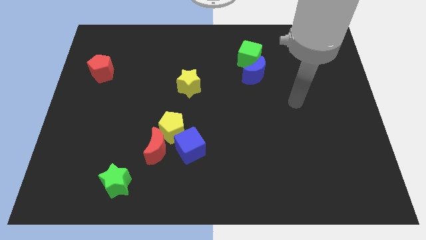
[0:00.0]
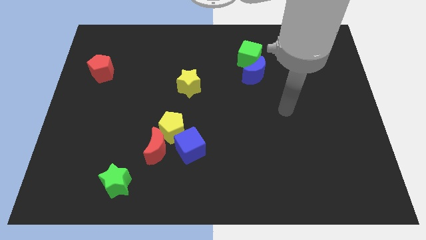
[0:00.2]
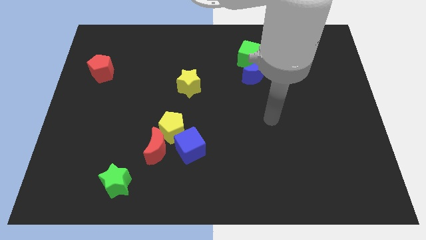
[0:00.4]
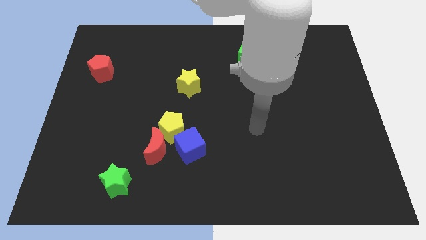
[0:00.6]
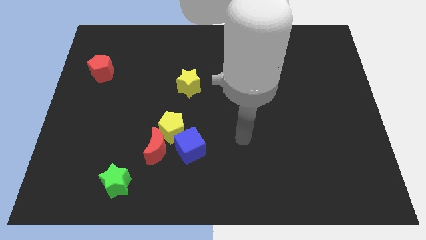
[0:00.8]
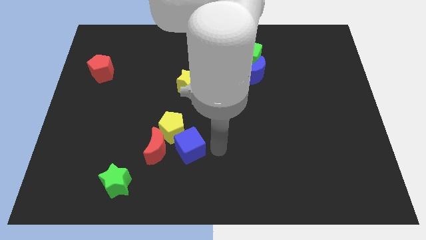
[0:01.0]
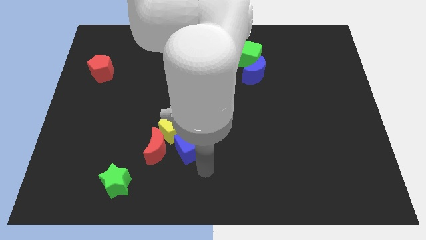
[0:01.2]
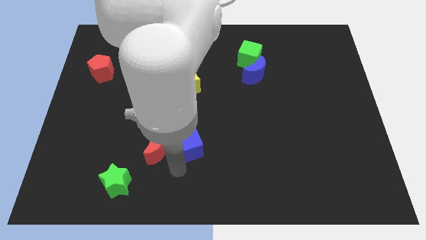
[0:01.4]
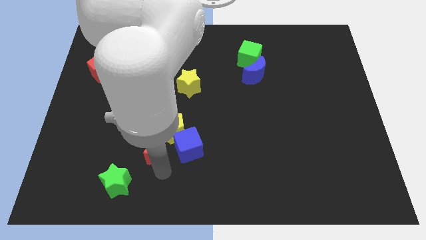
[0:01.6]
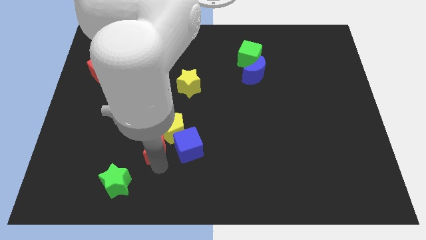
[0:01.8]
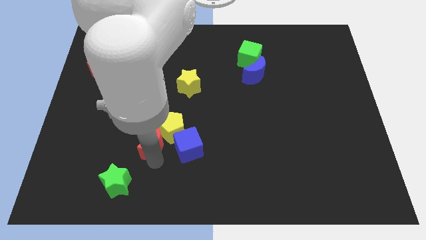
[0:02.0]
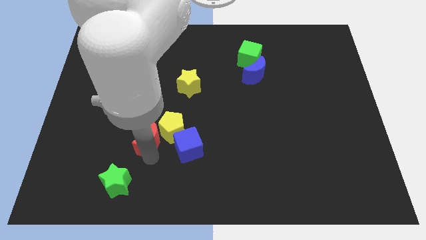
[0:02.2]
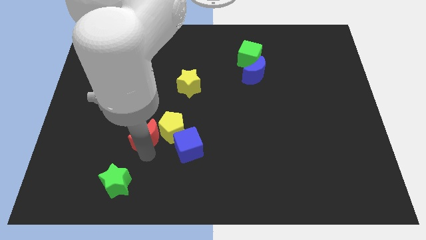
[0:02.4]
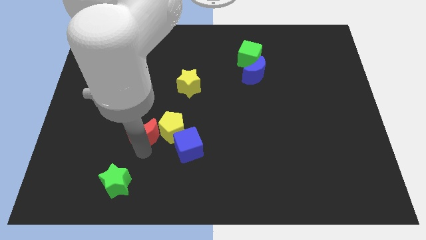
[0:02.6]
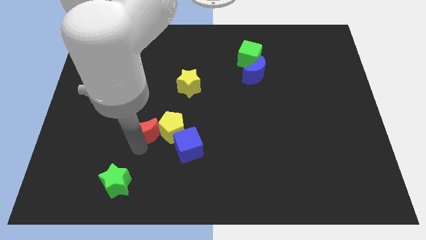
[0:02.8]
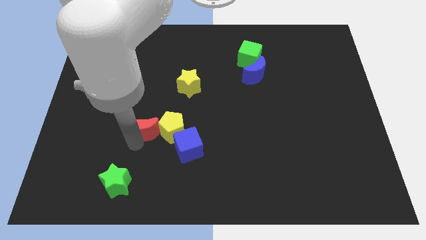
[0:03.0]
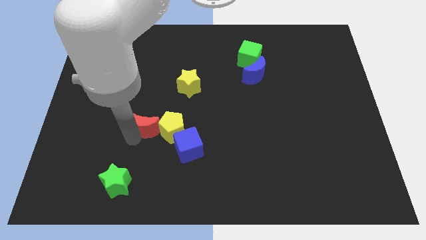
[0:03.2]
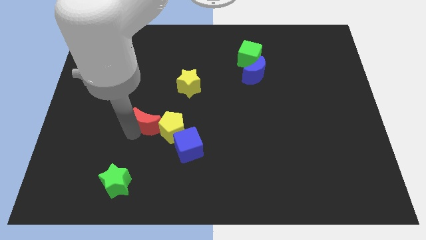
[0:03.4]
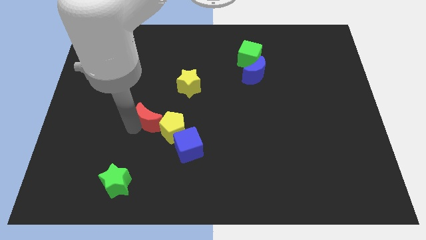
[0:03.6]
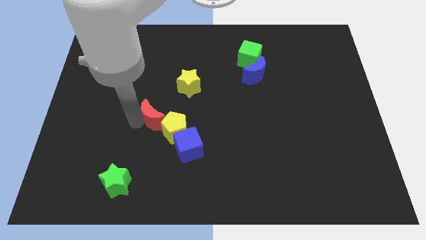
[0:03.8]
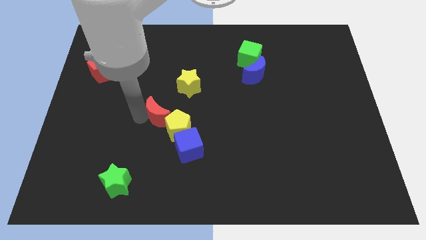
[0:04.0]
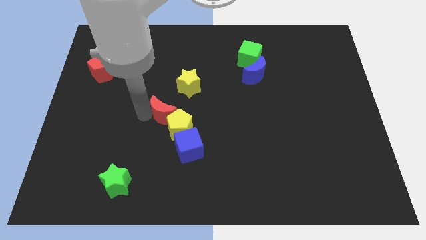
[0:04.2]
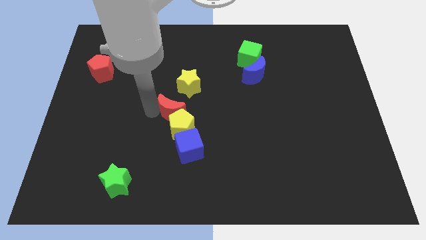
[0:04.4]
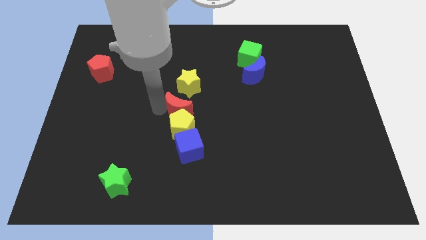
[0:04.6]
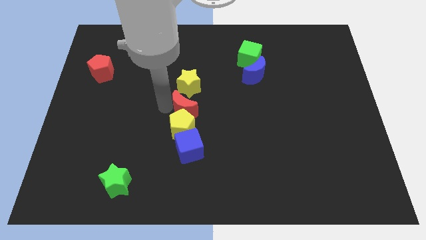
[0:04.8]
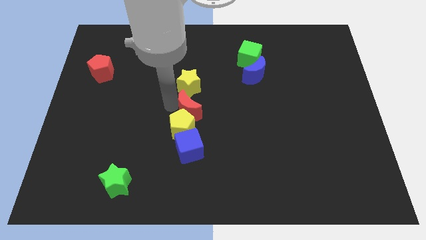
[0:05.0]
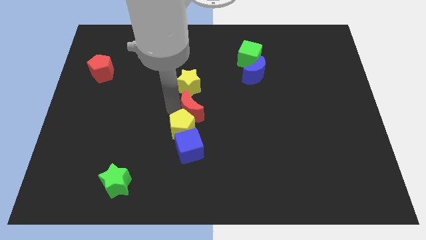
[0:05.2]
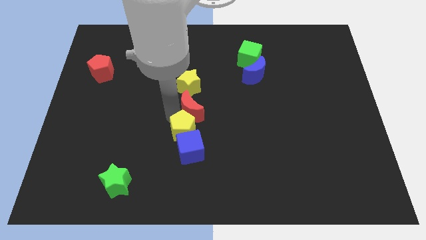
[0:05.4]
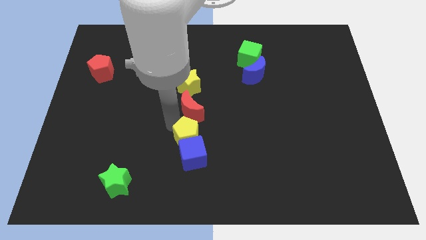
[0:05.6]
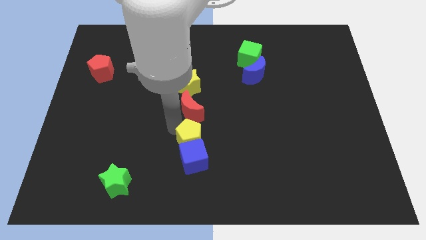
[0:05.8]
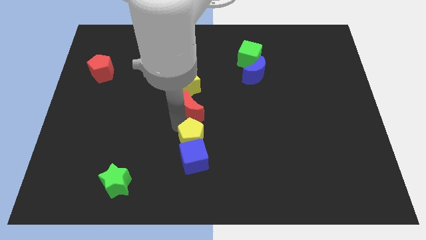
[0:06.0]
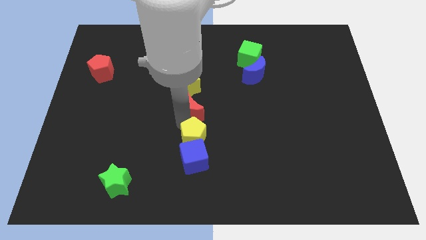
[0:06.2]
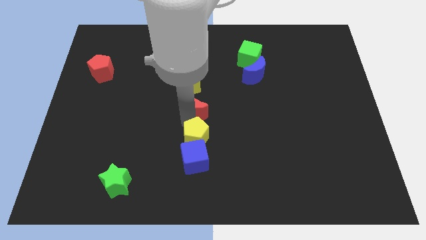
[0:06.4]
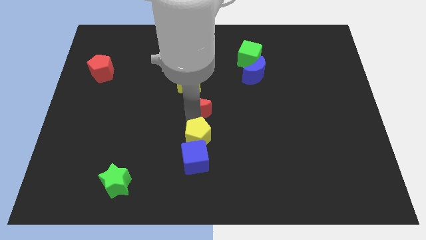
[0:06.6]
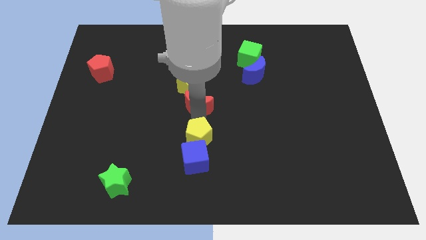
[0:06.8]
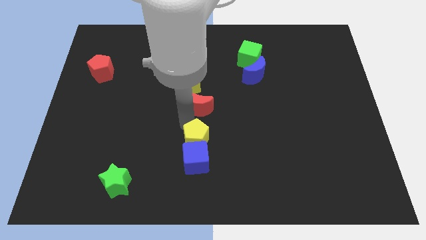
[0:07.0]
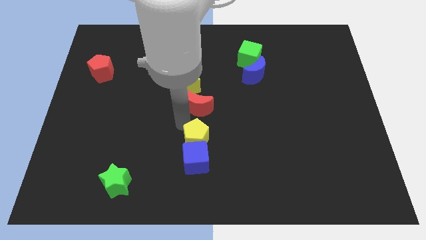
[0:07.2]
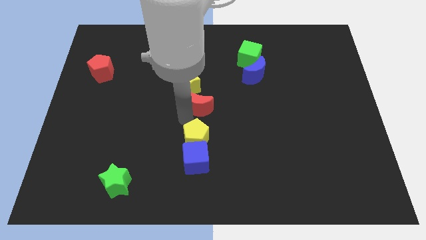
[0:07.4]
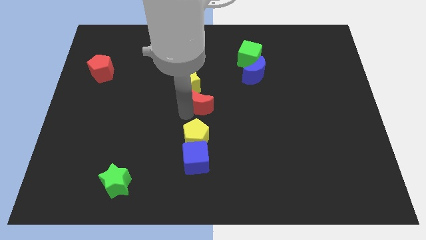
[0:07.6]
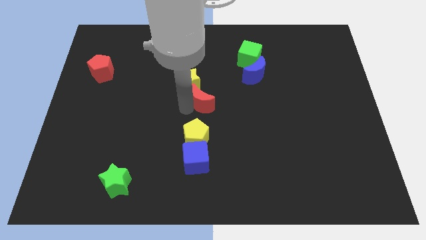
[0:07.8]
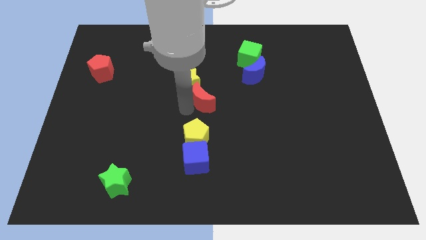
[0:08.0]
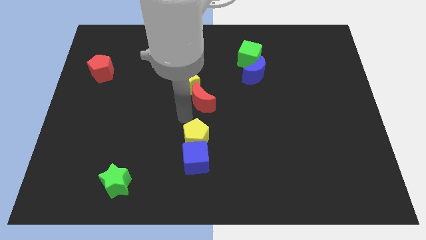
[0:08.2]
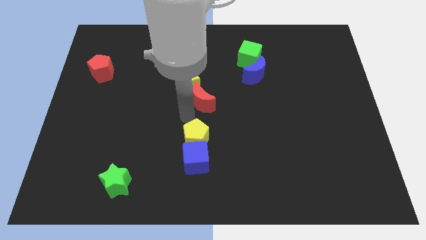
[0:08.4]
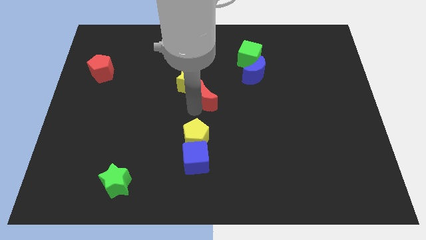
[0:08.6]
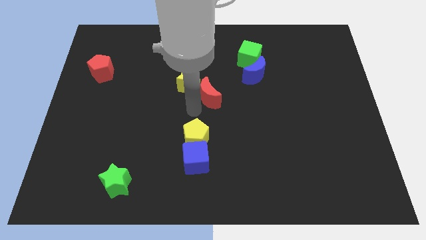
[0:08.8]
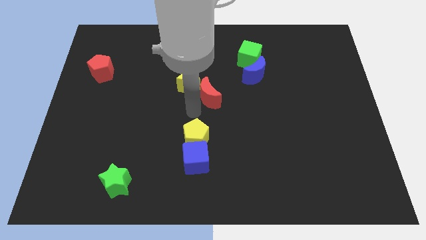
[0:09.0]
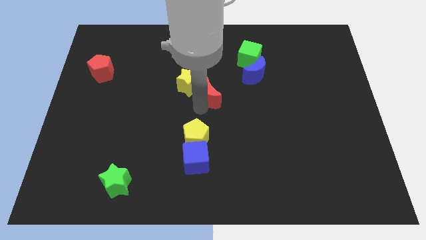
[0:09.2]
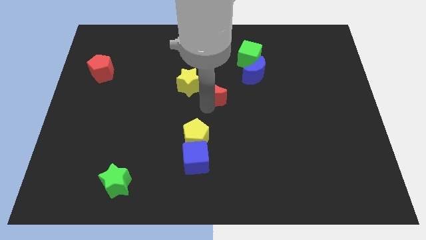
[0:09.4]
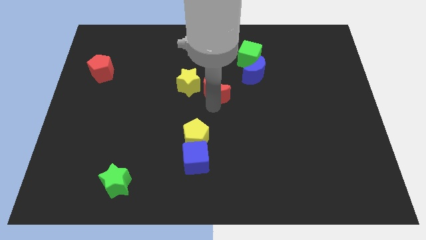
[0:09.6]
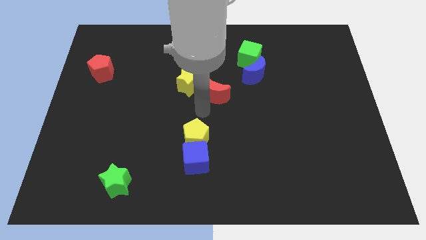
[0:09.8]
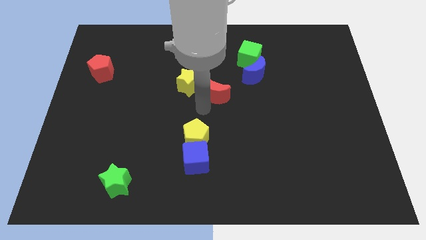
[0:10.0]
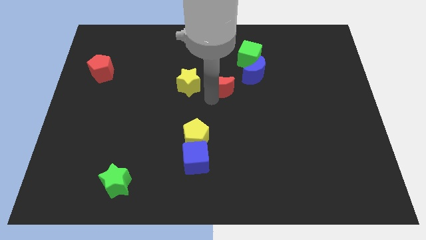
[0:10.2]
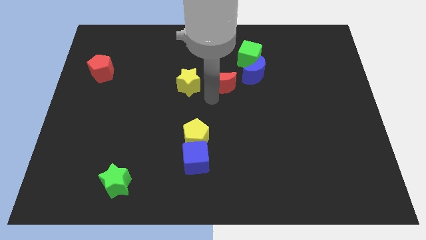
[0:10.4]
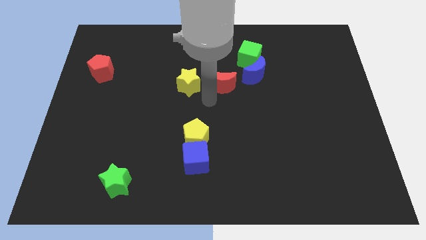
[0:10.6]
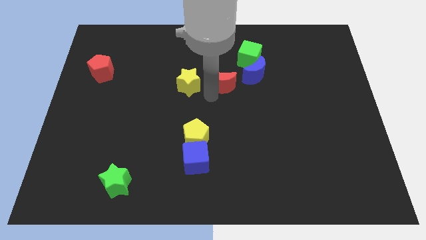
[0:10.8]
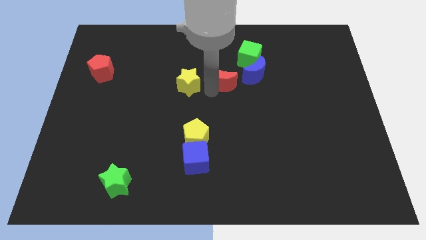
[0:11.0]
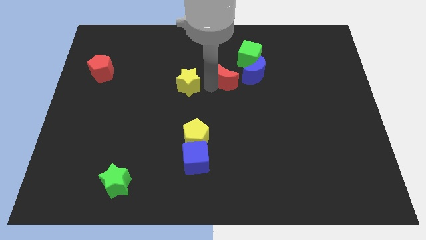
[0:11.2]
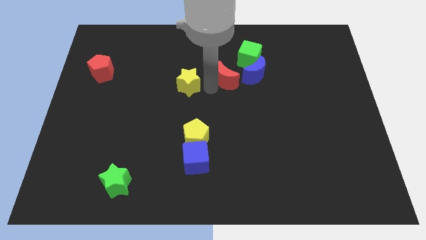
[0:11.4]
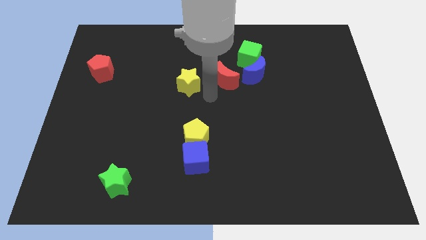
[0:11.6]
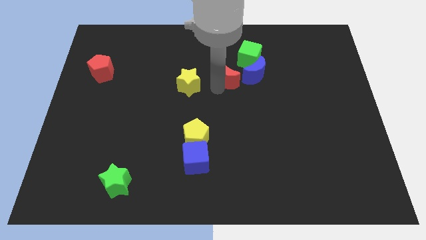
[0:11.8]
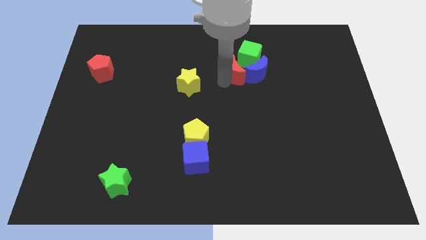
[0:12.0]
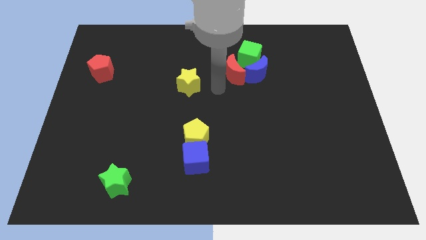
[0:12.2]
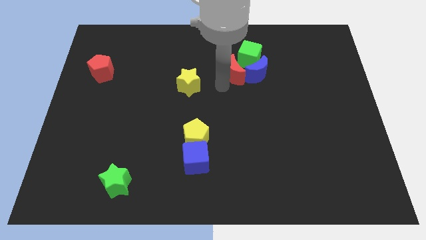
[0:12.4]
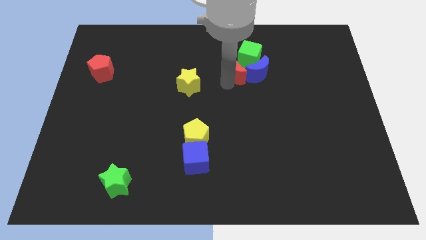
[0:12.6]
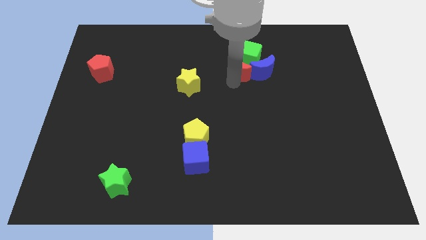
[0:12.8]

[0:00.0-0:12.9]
slide the red moon next to the green cube

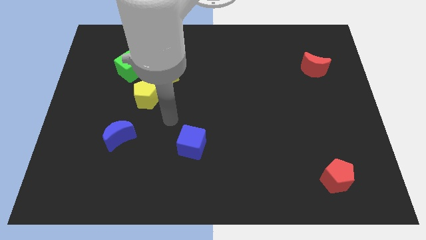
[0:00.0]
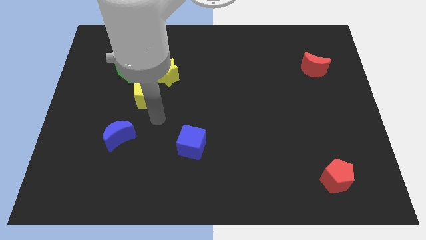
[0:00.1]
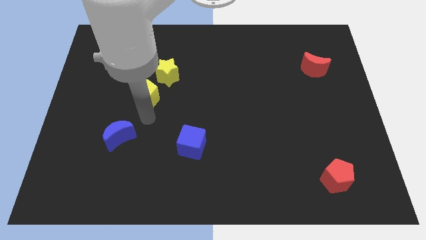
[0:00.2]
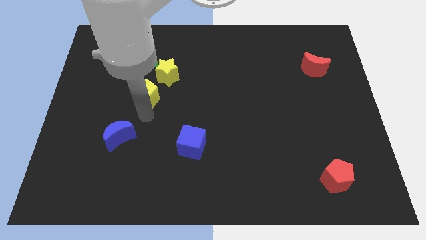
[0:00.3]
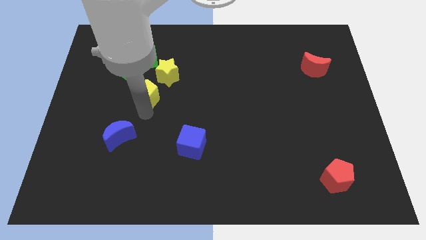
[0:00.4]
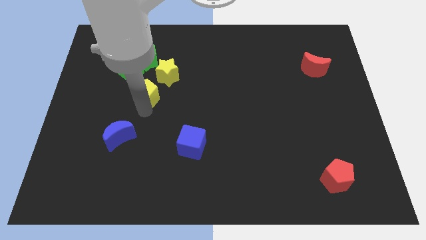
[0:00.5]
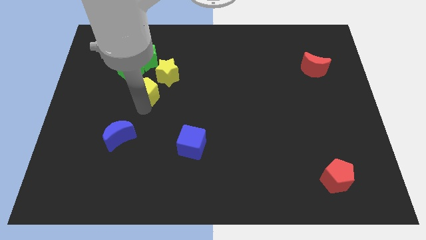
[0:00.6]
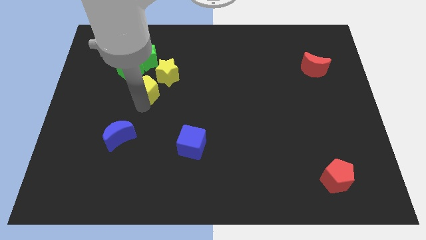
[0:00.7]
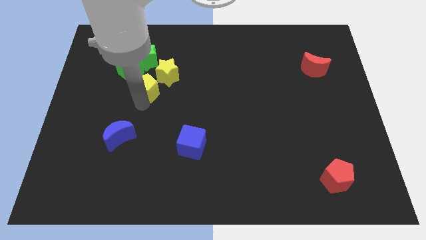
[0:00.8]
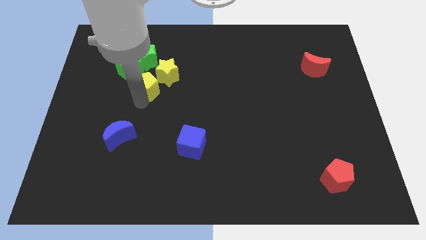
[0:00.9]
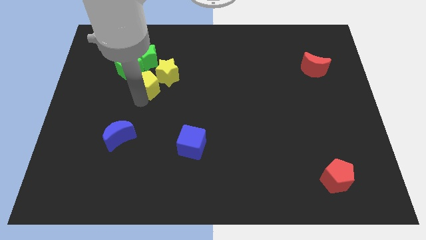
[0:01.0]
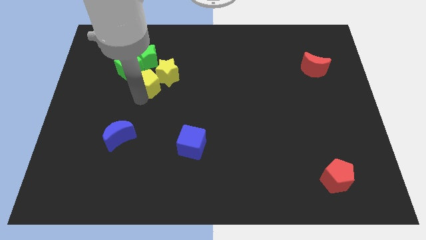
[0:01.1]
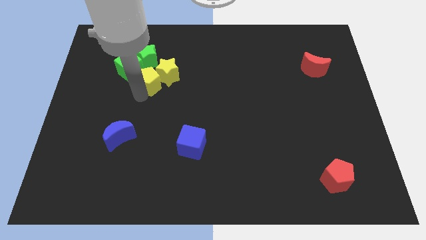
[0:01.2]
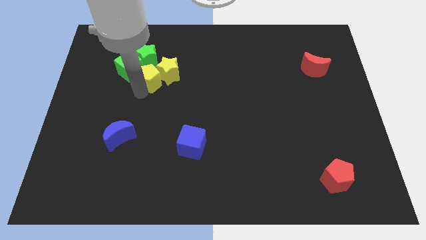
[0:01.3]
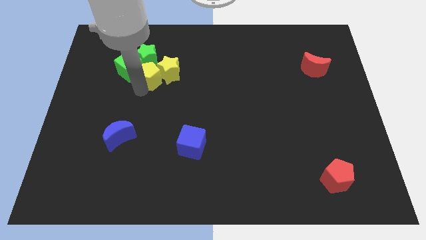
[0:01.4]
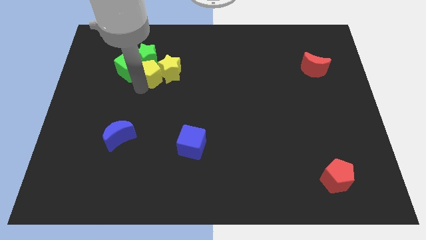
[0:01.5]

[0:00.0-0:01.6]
put the yellow pentagon to the green star
